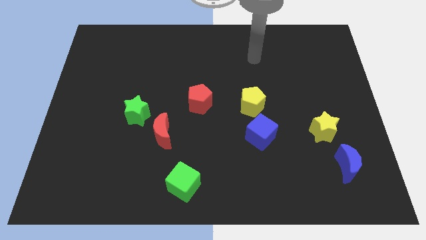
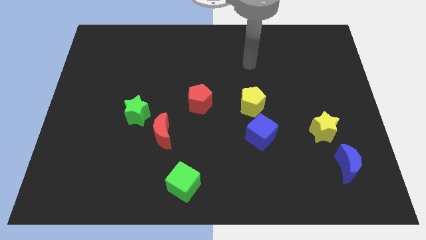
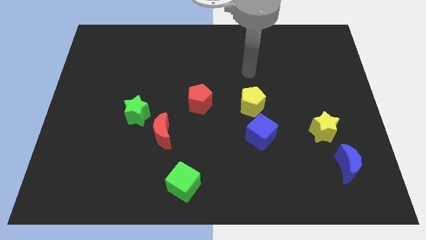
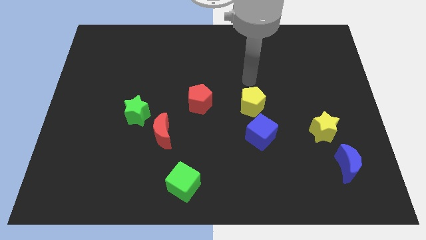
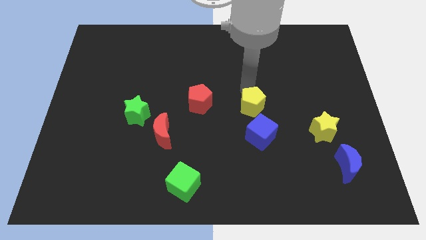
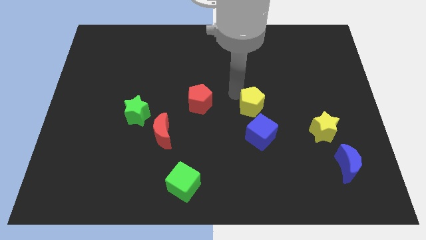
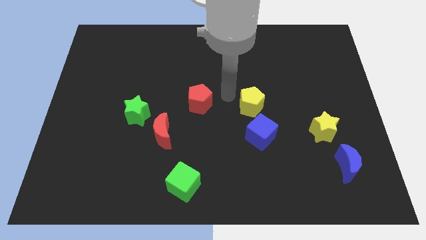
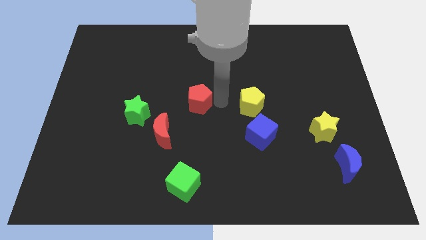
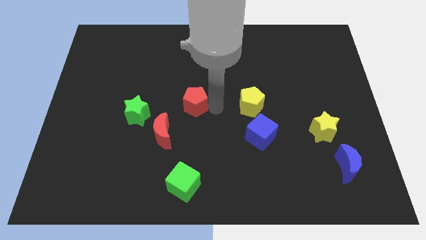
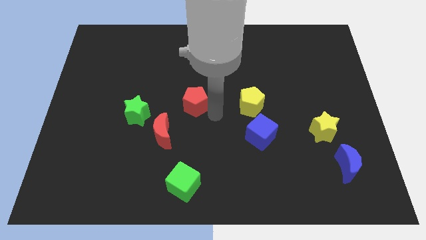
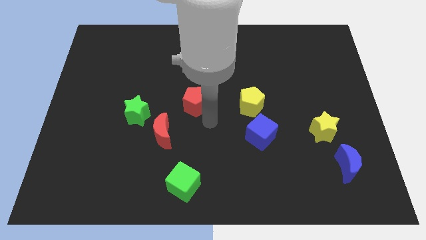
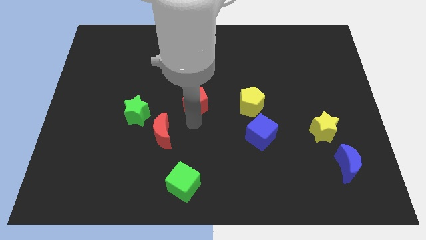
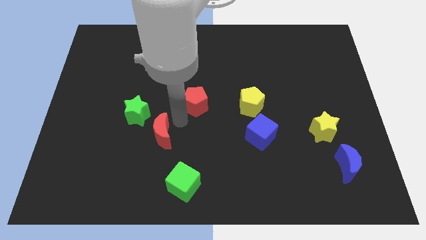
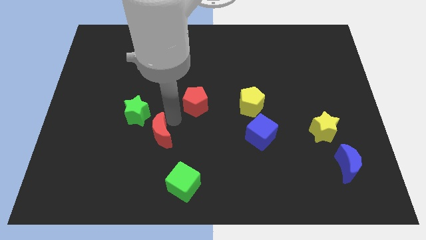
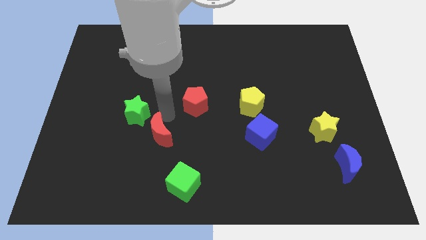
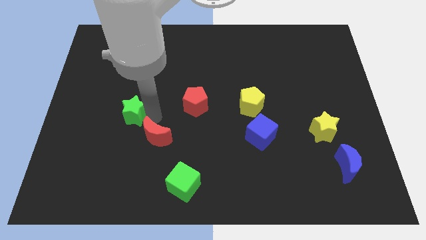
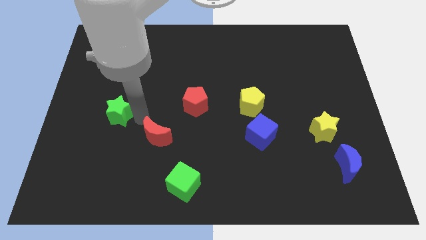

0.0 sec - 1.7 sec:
separate the red moon from the green star

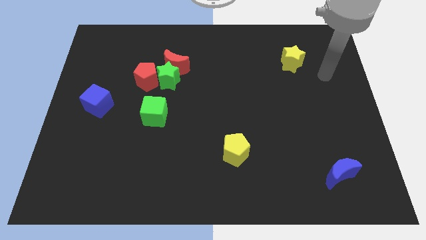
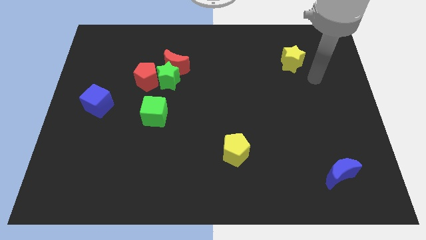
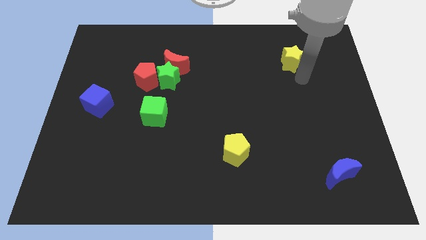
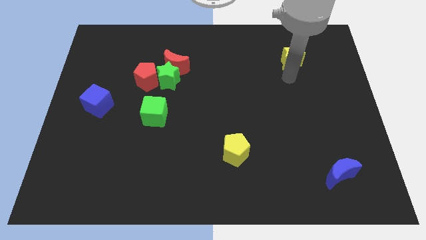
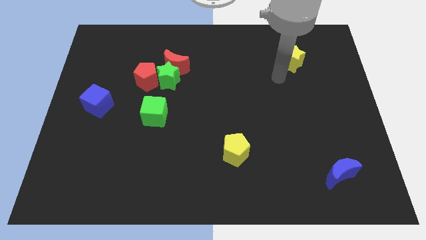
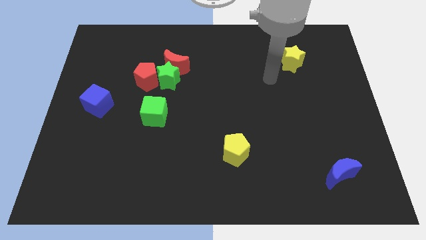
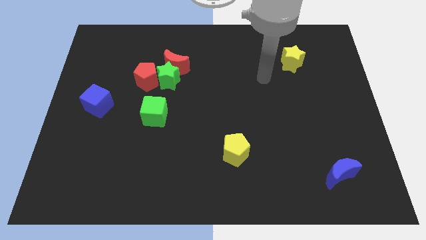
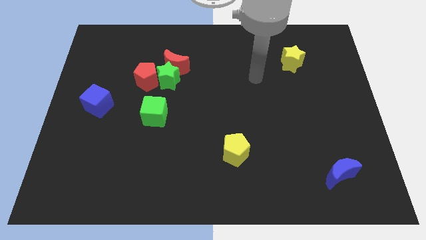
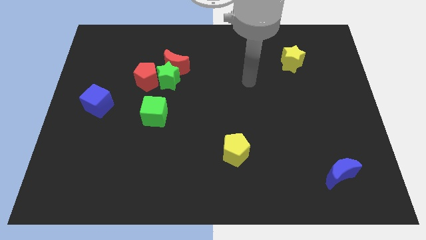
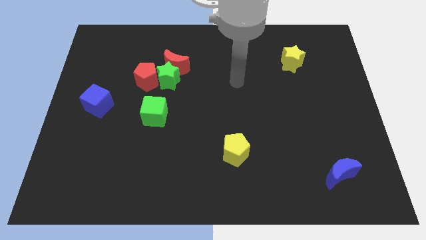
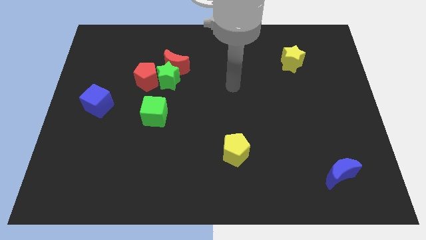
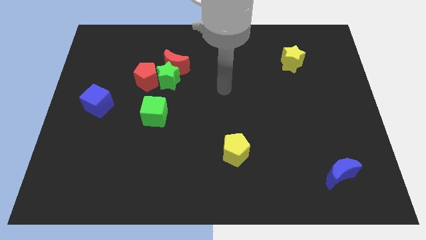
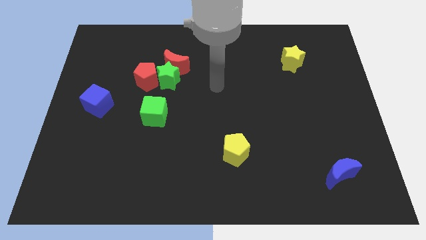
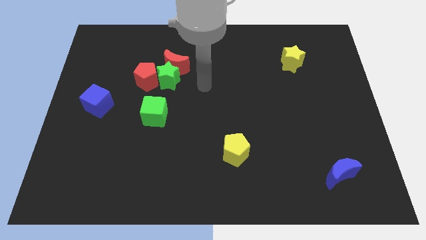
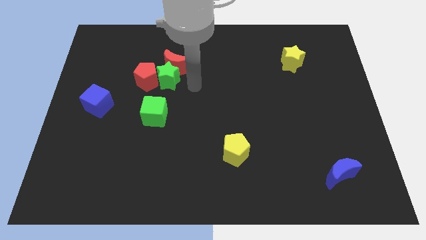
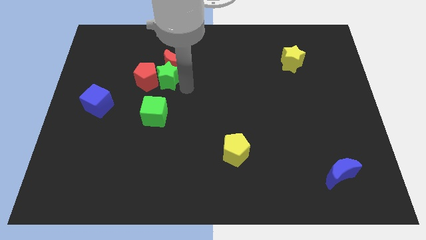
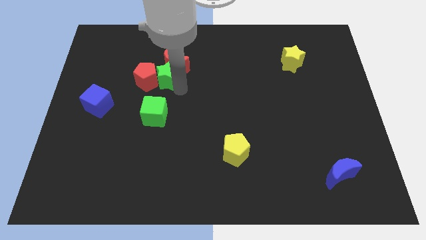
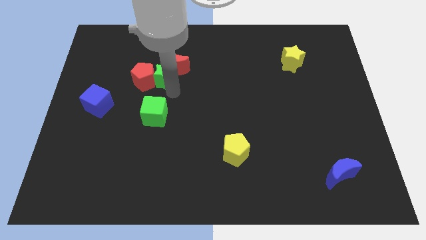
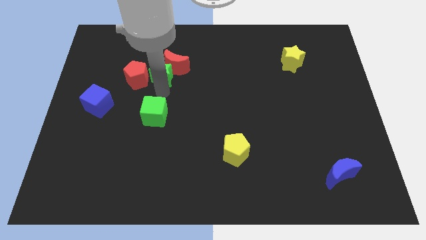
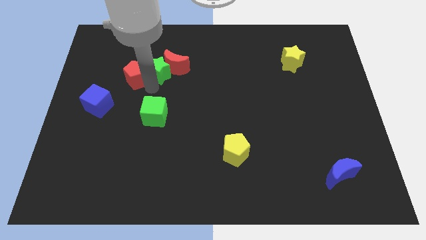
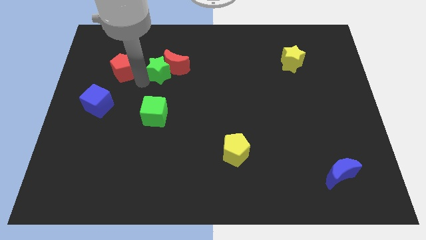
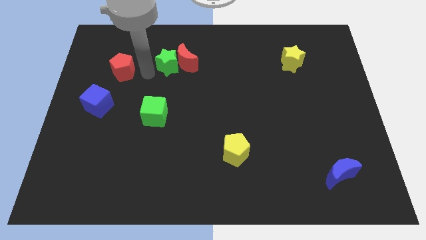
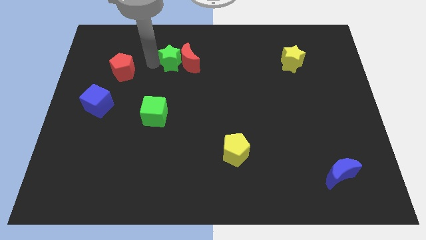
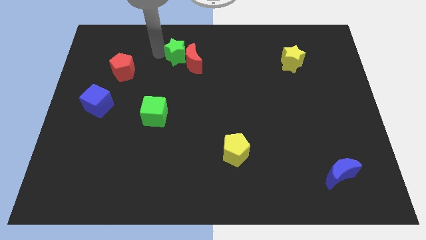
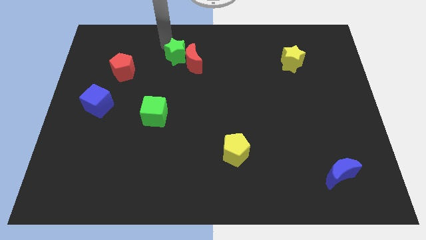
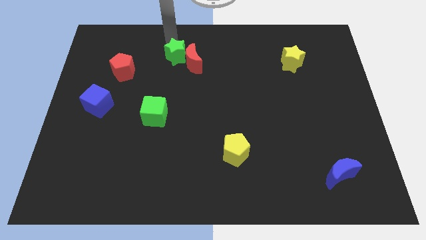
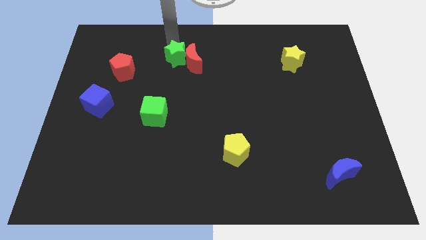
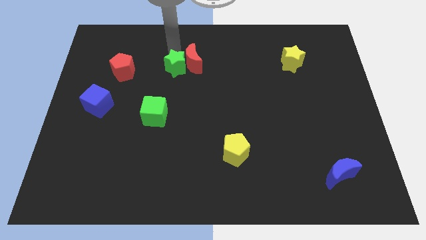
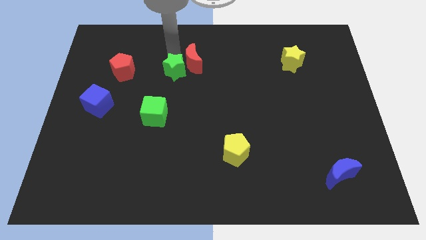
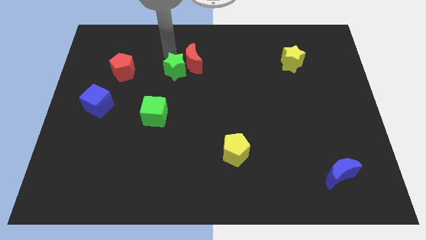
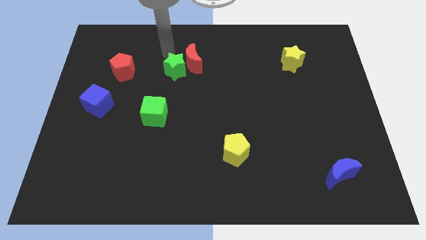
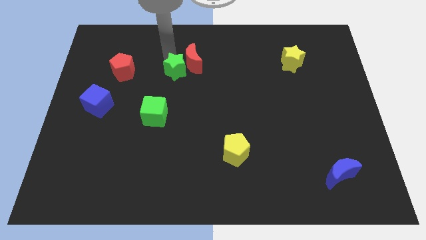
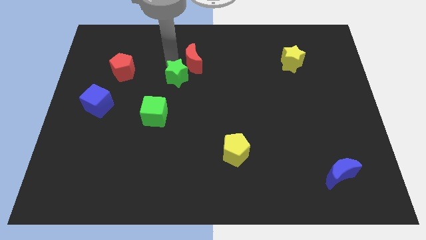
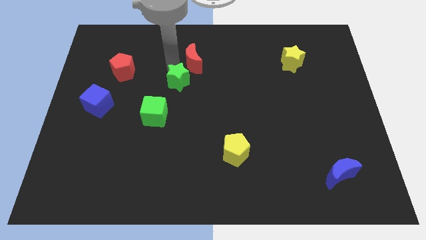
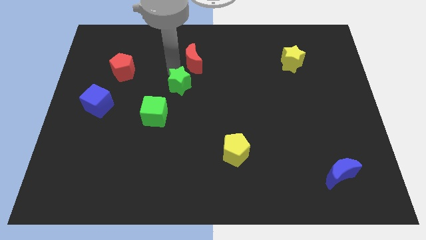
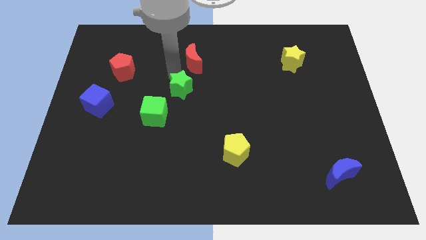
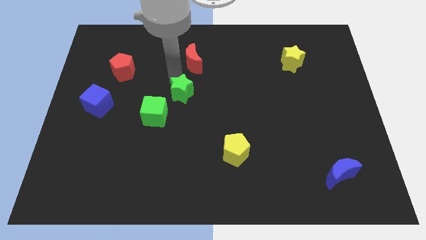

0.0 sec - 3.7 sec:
pull the green star apart from the red moon and red pentagon

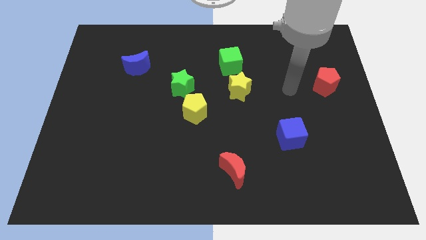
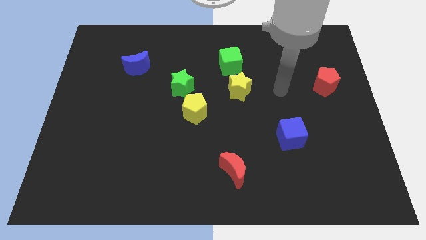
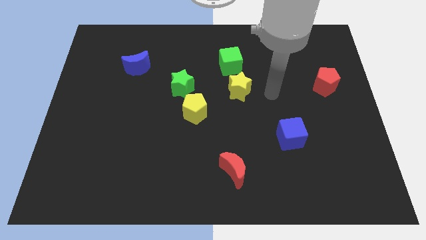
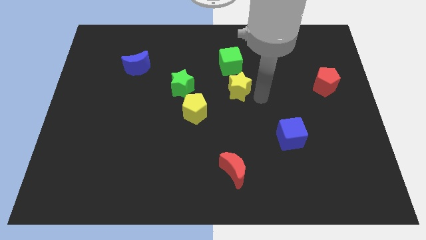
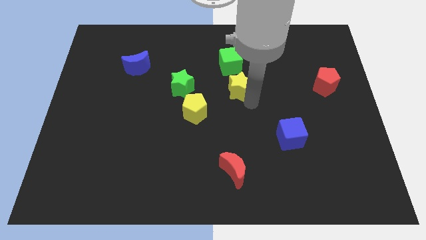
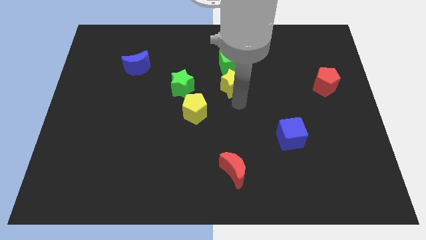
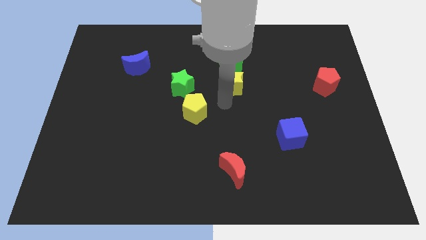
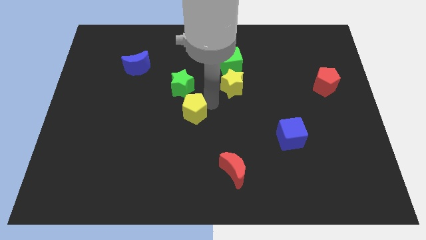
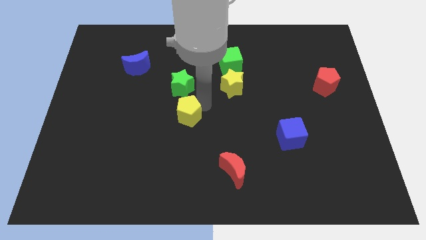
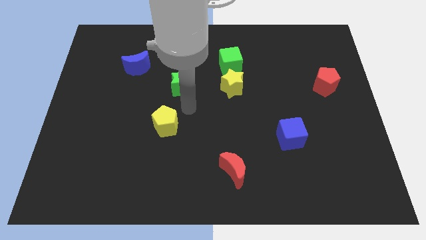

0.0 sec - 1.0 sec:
separate the green star from the yellow pentagon

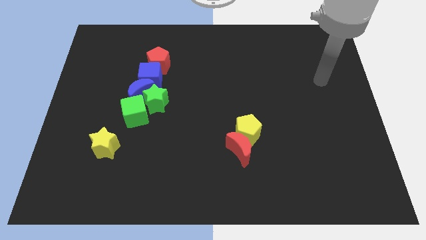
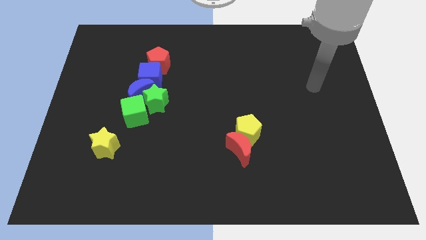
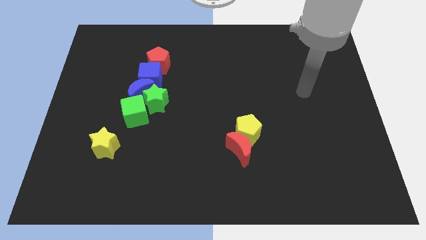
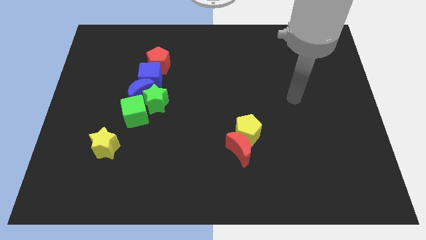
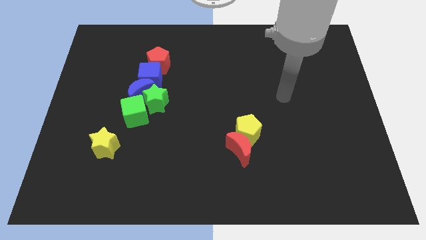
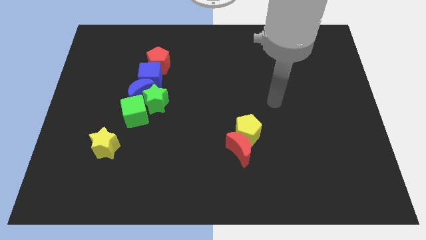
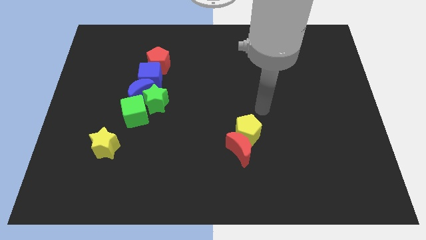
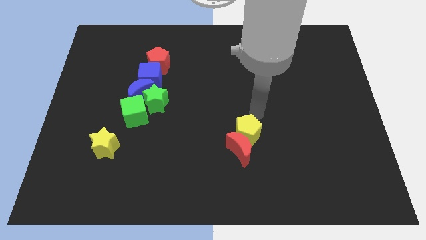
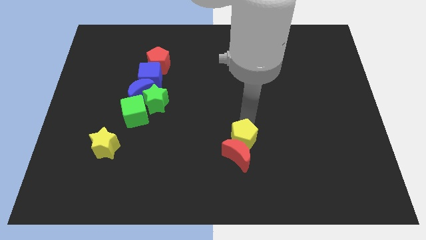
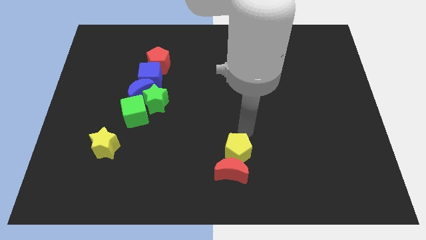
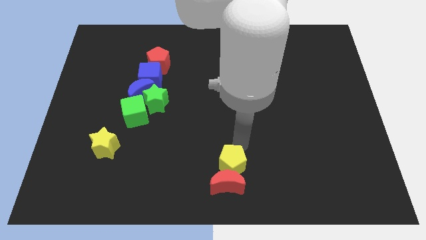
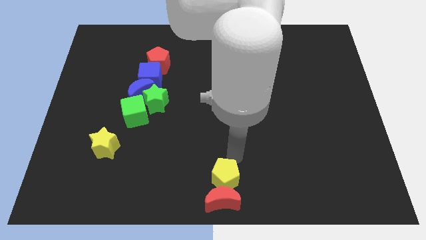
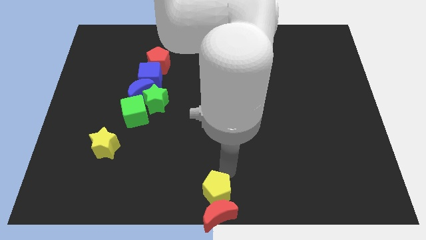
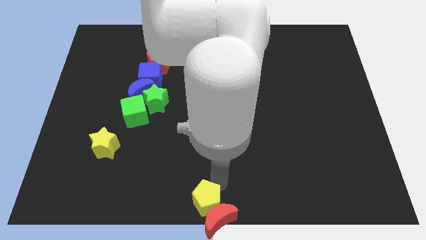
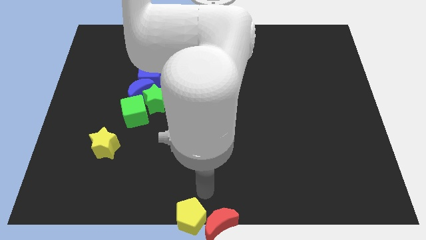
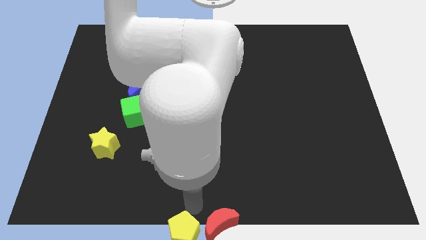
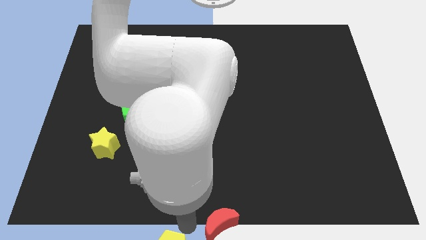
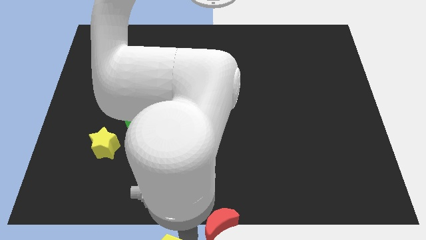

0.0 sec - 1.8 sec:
move the red moon away from the yellow pentagon

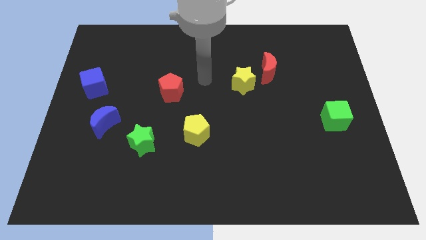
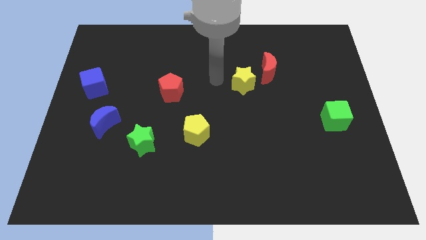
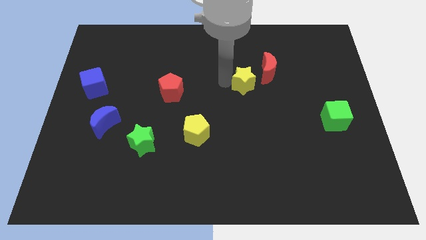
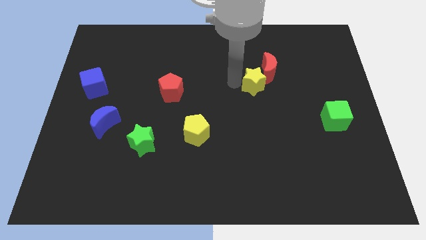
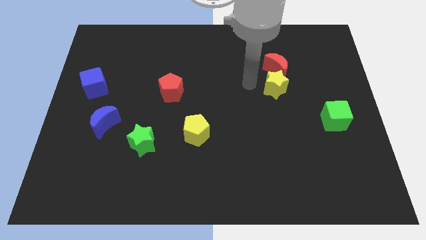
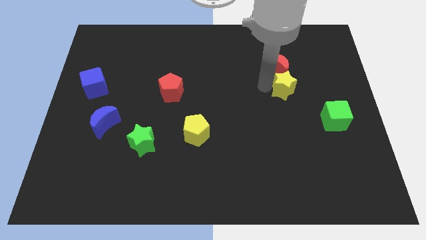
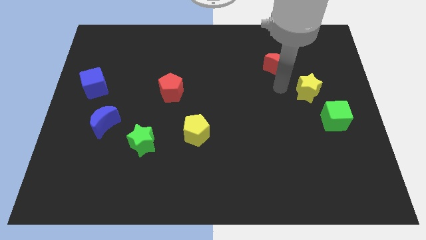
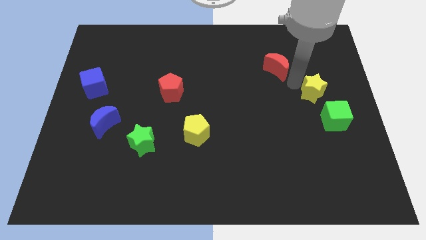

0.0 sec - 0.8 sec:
separate the red moon from the yellow star

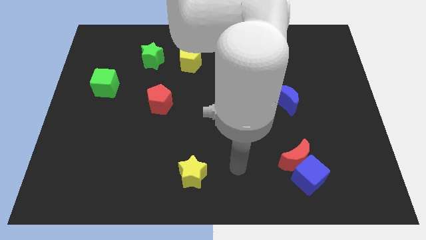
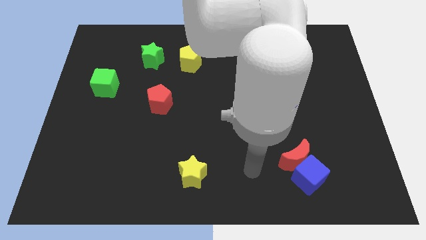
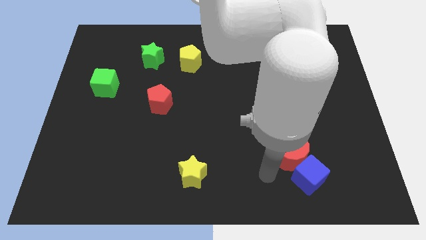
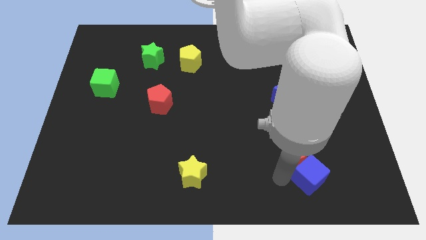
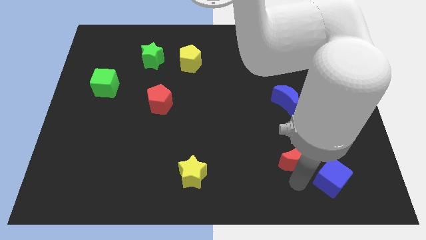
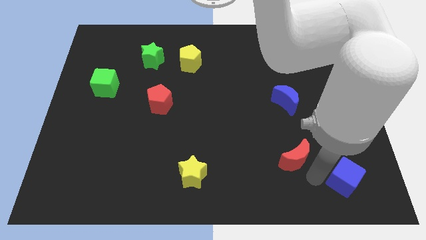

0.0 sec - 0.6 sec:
pull the red moon apart from the blue cube
